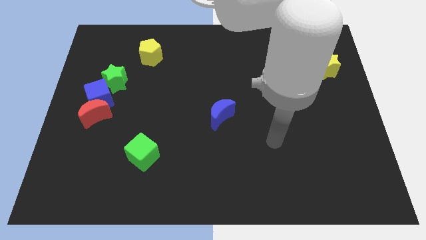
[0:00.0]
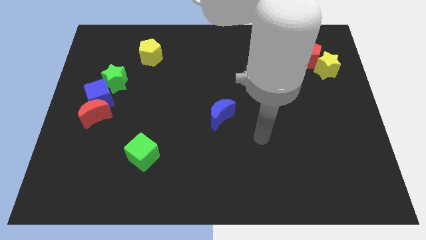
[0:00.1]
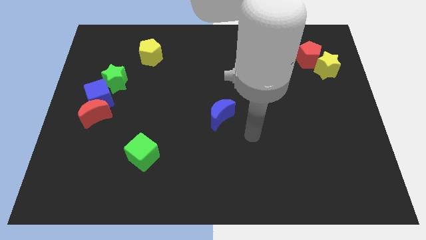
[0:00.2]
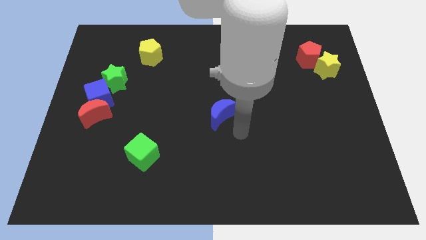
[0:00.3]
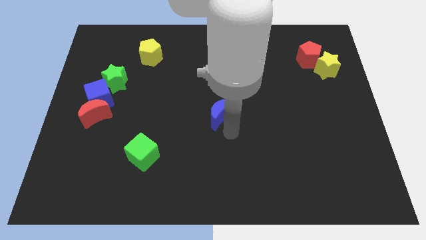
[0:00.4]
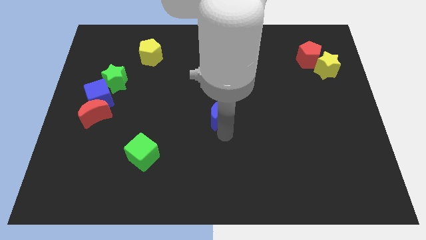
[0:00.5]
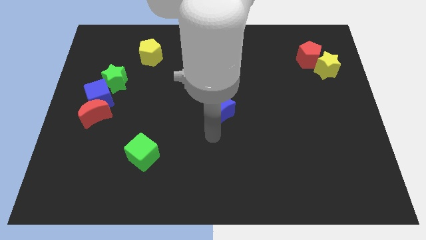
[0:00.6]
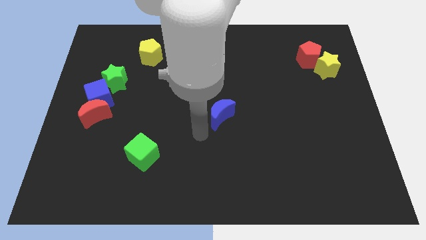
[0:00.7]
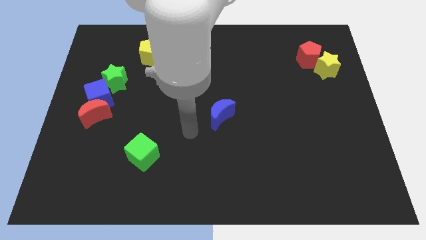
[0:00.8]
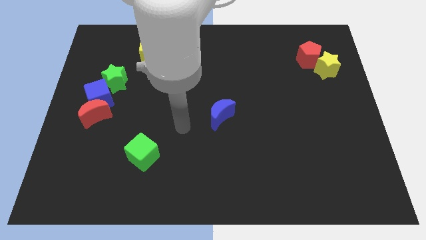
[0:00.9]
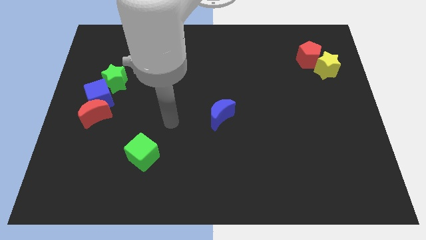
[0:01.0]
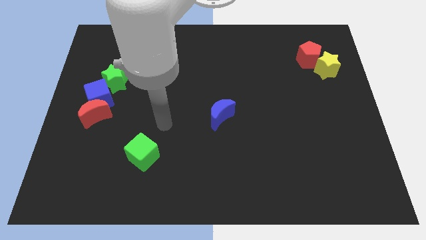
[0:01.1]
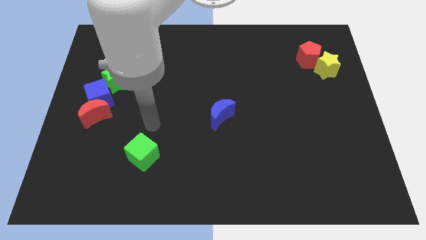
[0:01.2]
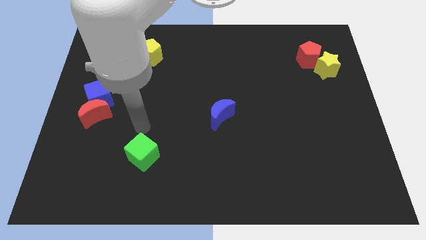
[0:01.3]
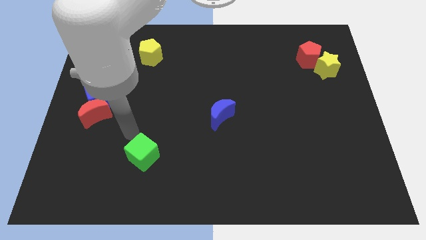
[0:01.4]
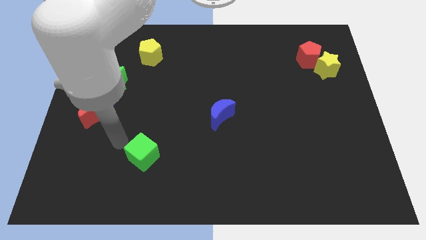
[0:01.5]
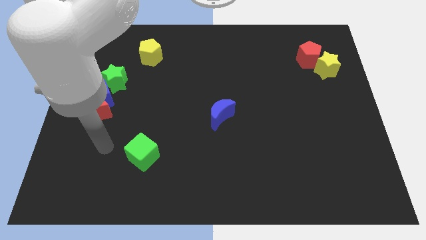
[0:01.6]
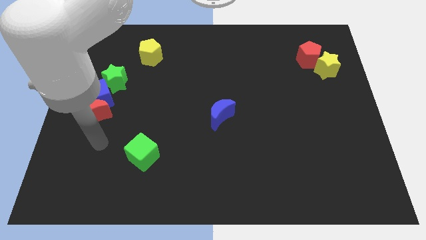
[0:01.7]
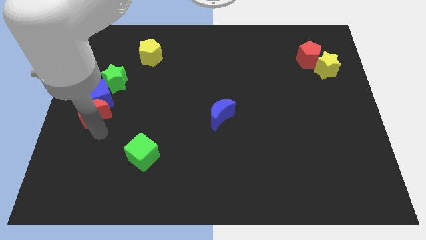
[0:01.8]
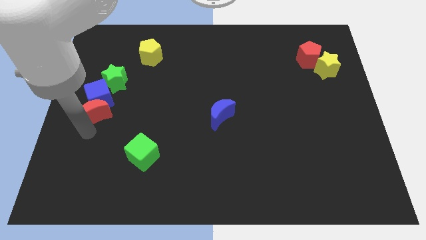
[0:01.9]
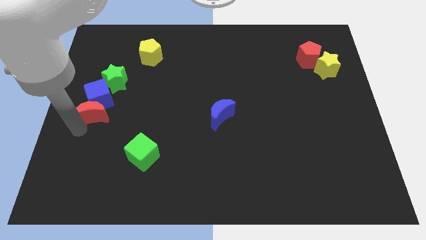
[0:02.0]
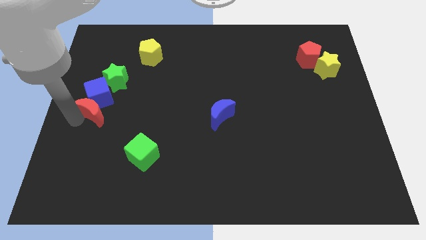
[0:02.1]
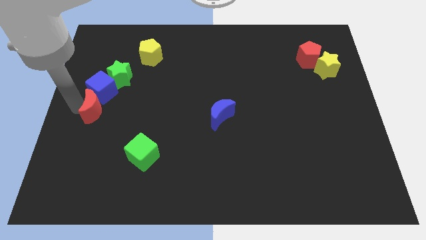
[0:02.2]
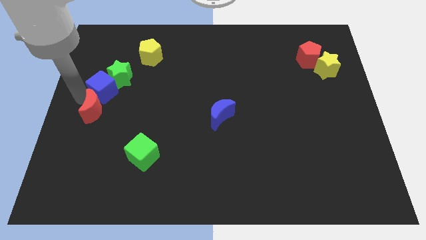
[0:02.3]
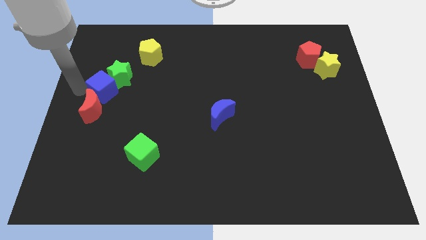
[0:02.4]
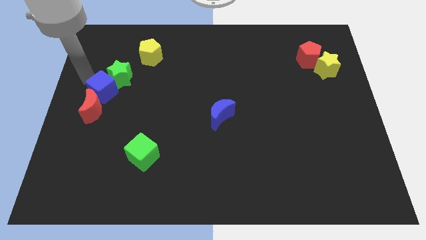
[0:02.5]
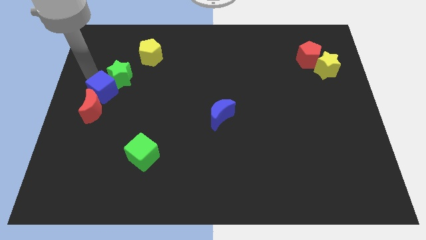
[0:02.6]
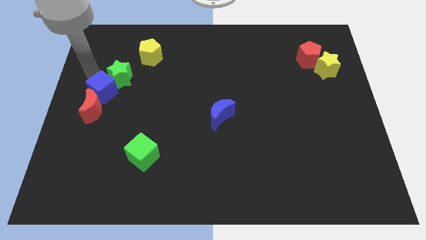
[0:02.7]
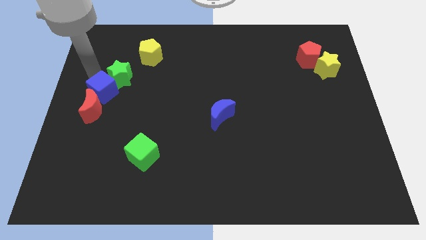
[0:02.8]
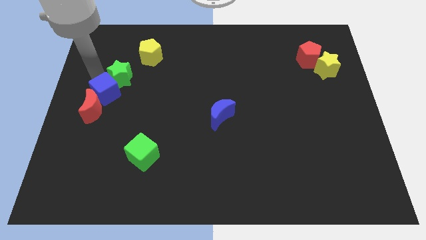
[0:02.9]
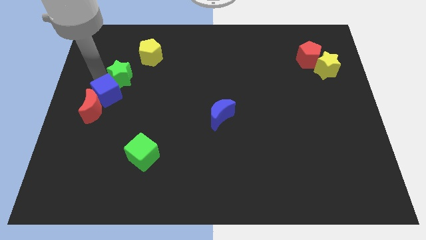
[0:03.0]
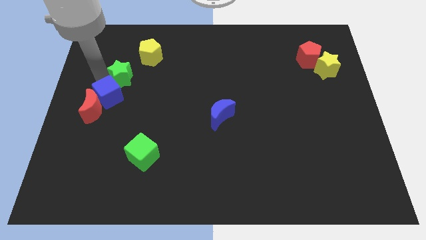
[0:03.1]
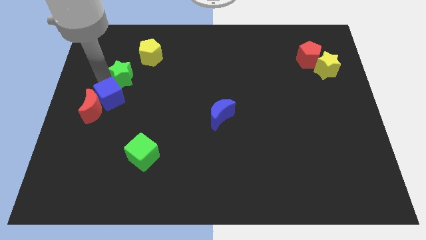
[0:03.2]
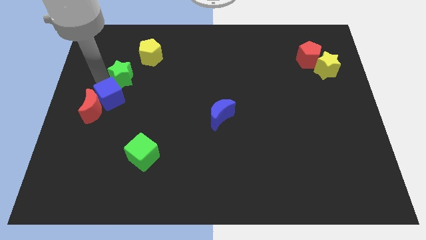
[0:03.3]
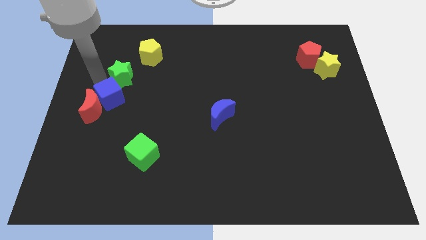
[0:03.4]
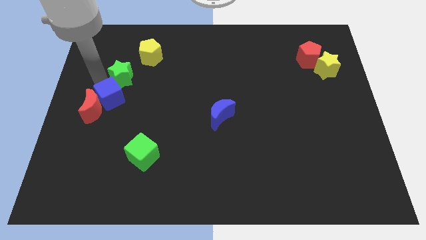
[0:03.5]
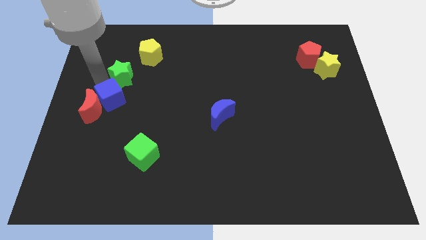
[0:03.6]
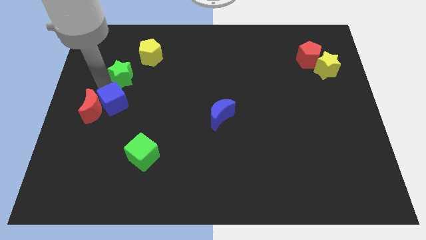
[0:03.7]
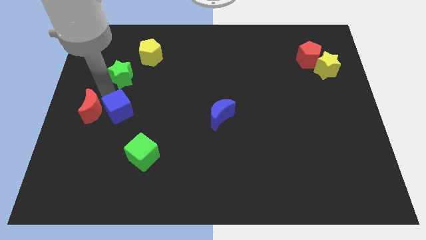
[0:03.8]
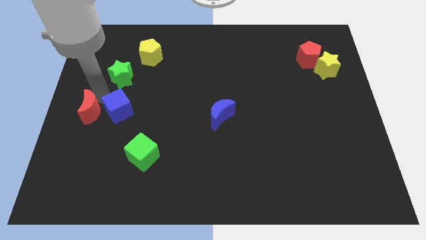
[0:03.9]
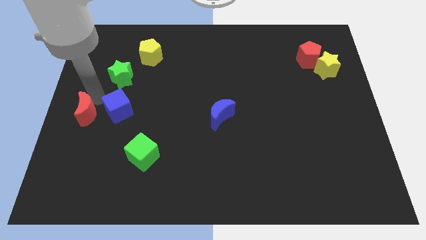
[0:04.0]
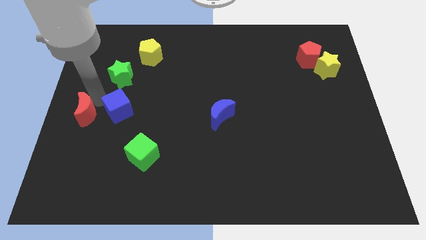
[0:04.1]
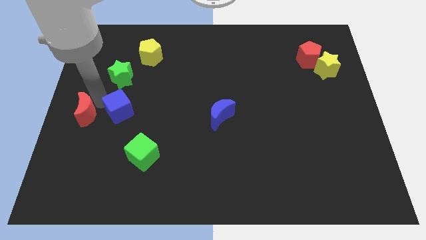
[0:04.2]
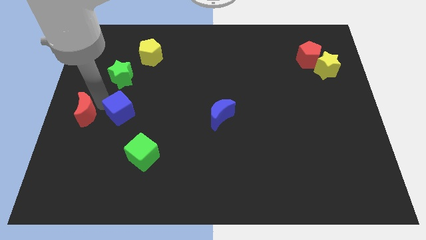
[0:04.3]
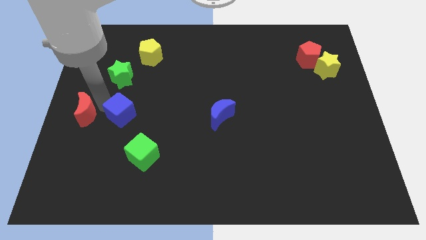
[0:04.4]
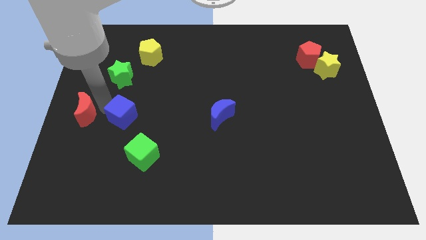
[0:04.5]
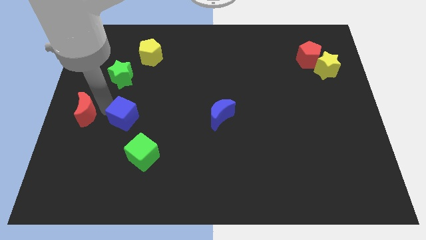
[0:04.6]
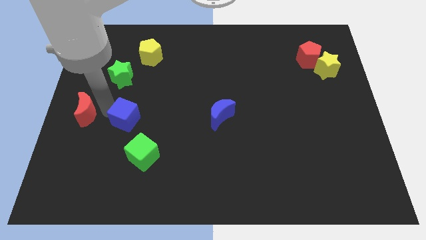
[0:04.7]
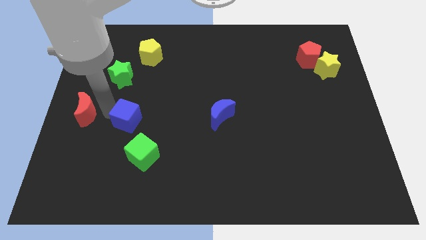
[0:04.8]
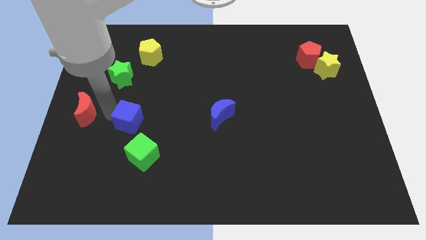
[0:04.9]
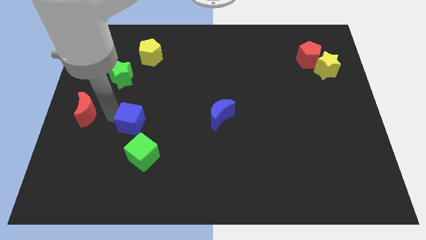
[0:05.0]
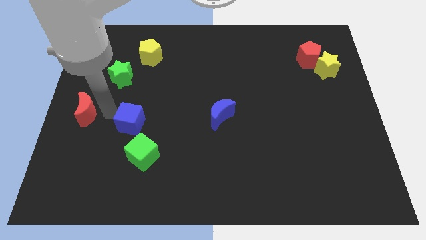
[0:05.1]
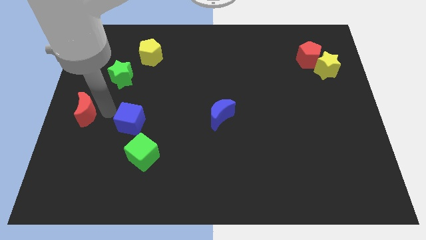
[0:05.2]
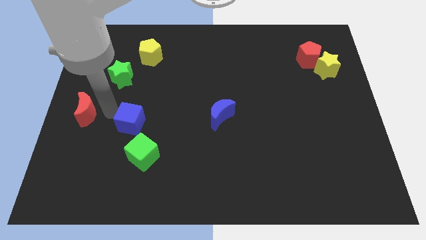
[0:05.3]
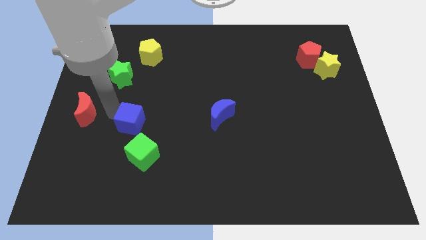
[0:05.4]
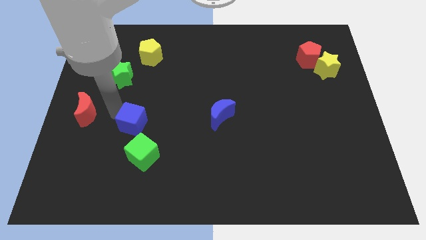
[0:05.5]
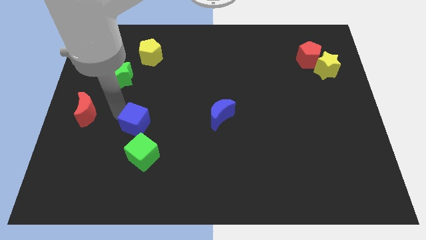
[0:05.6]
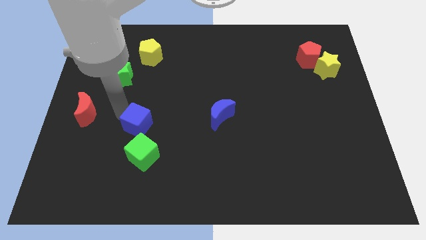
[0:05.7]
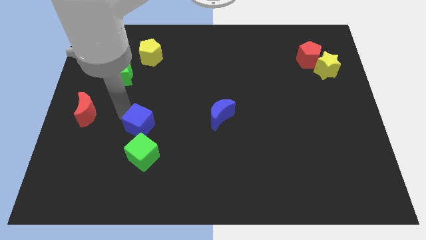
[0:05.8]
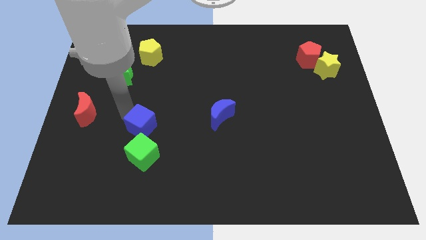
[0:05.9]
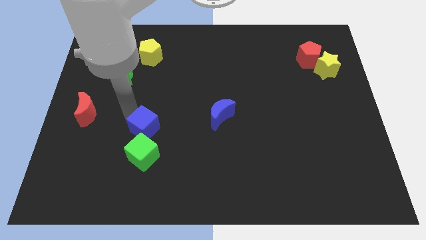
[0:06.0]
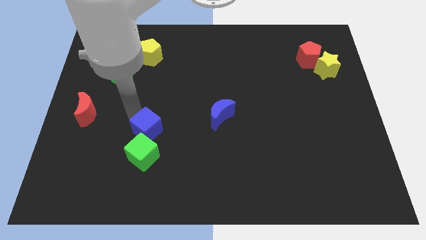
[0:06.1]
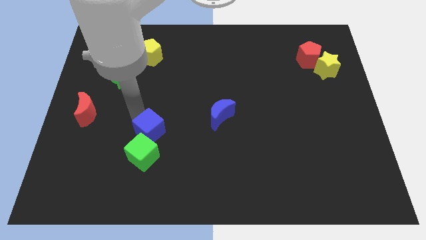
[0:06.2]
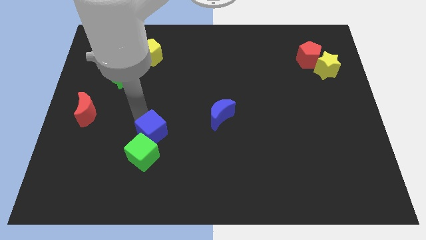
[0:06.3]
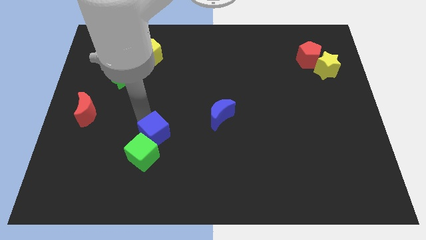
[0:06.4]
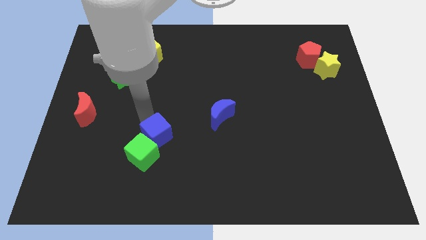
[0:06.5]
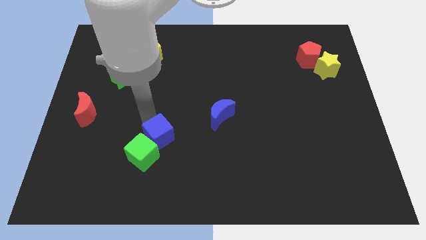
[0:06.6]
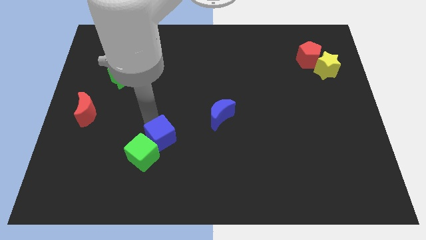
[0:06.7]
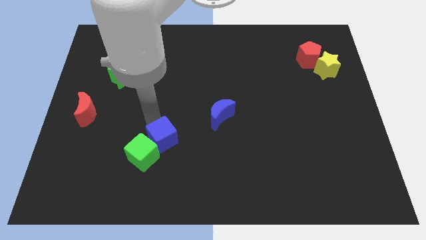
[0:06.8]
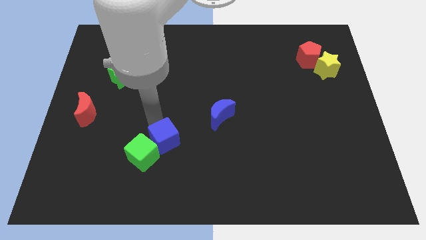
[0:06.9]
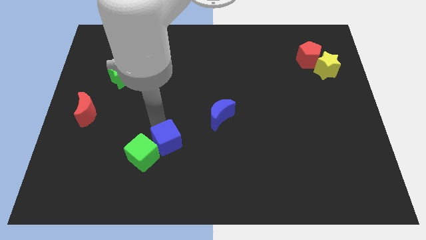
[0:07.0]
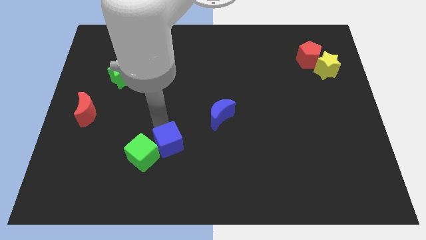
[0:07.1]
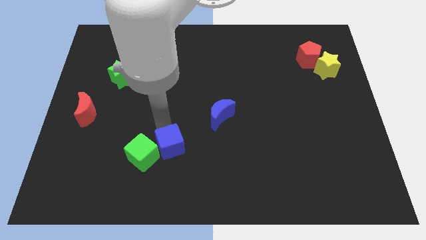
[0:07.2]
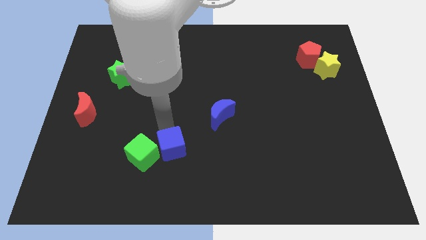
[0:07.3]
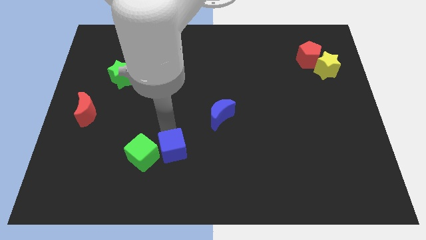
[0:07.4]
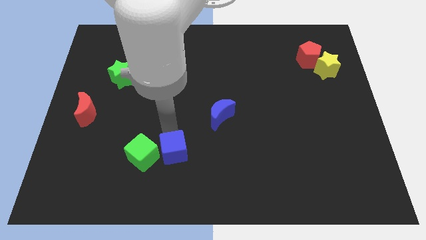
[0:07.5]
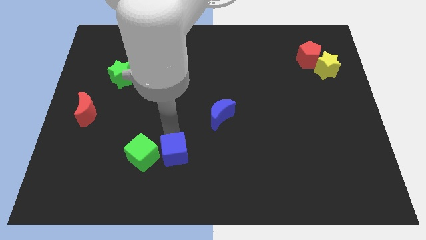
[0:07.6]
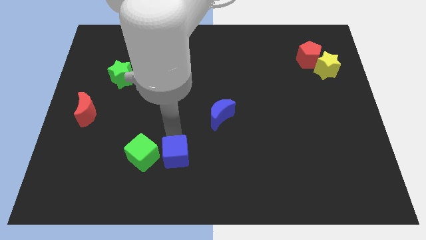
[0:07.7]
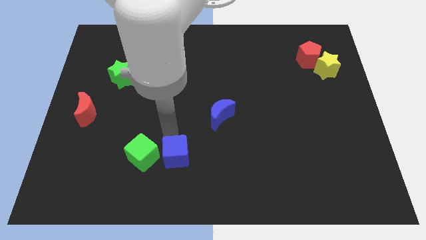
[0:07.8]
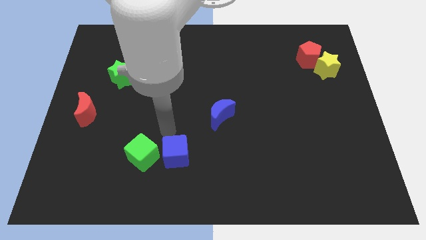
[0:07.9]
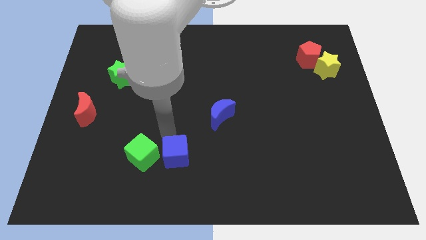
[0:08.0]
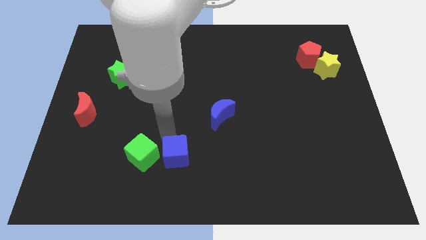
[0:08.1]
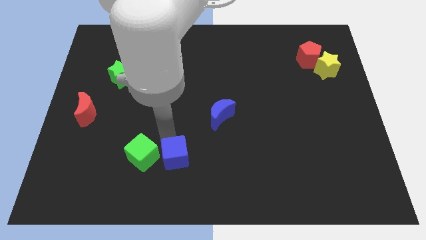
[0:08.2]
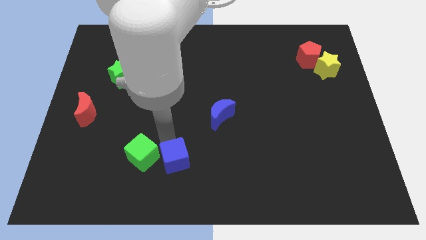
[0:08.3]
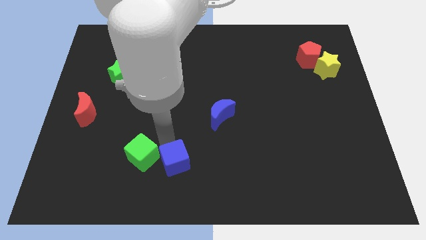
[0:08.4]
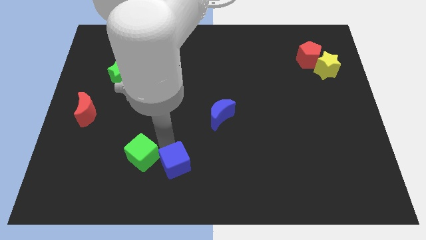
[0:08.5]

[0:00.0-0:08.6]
push the blue cube to the bottom side
